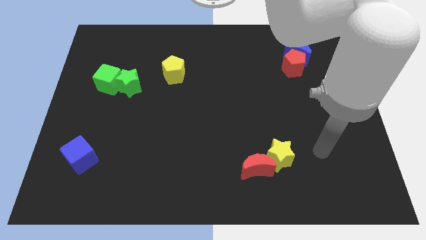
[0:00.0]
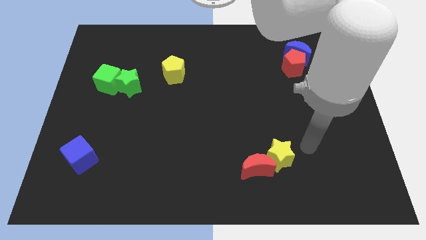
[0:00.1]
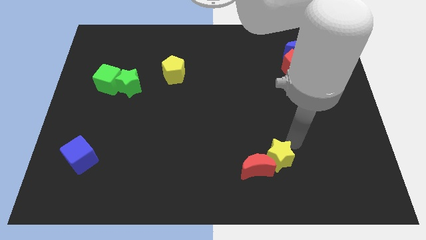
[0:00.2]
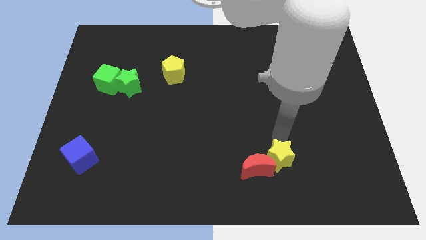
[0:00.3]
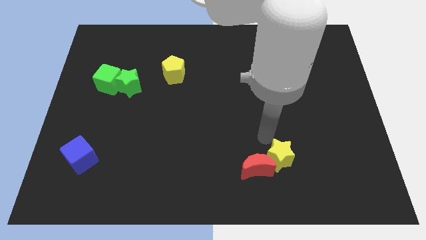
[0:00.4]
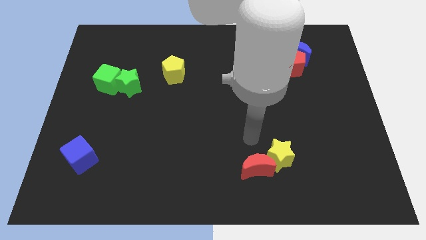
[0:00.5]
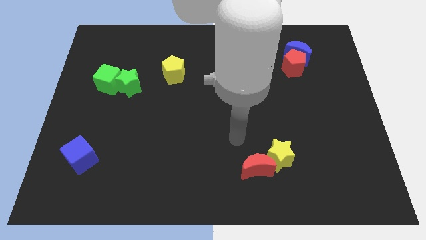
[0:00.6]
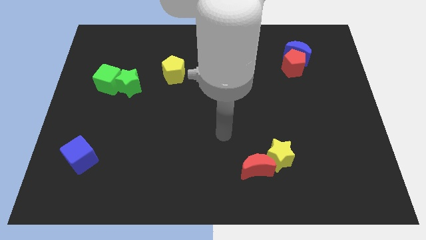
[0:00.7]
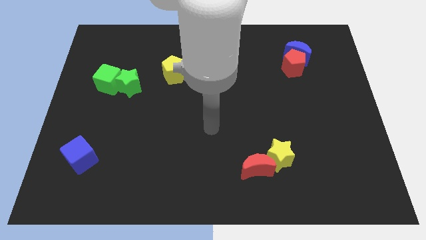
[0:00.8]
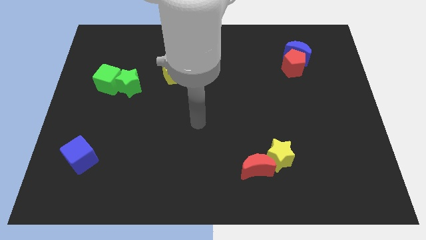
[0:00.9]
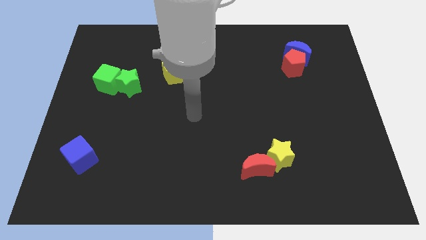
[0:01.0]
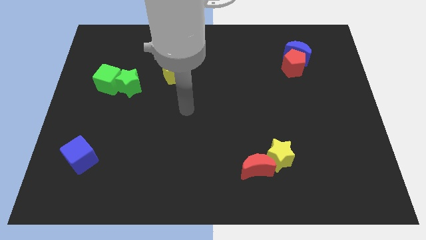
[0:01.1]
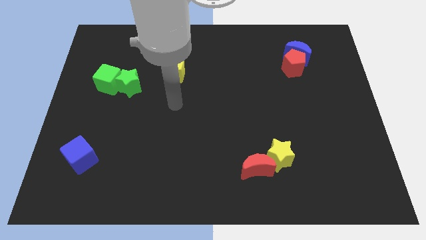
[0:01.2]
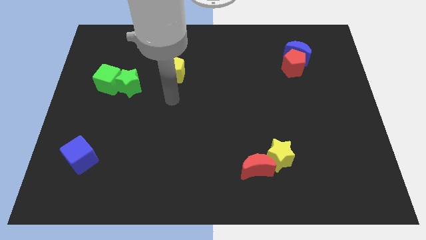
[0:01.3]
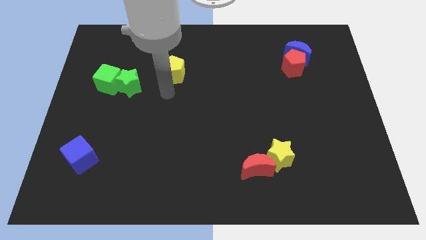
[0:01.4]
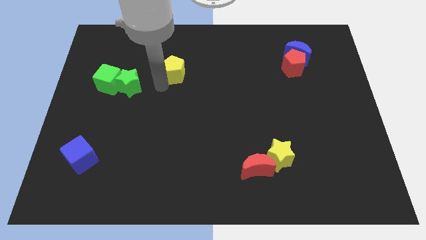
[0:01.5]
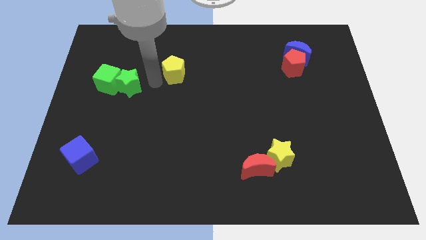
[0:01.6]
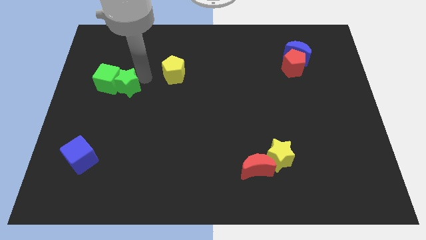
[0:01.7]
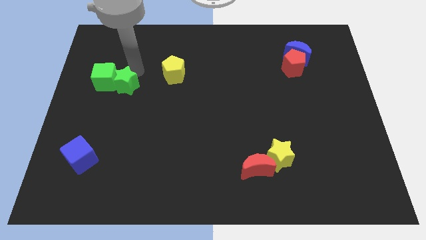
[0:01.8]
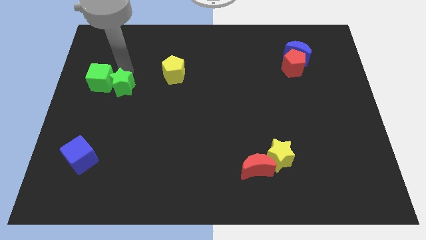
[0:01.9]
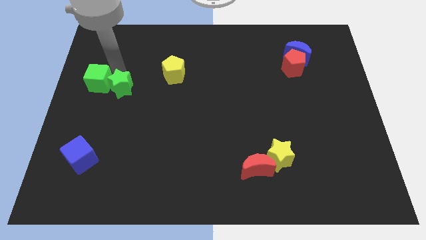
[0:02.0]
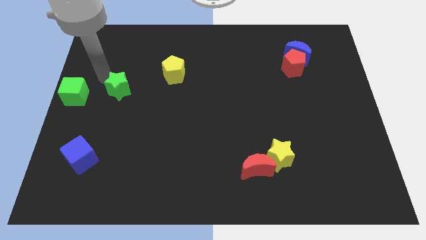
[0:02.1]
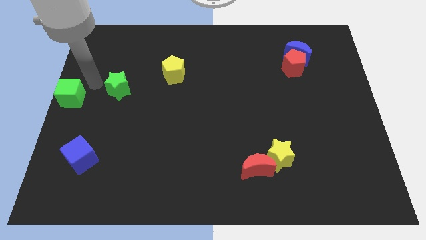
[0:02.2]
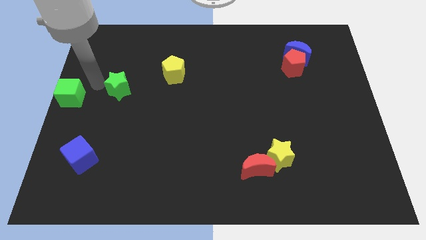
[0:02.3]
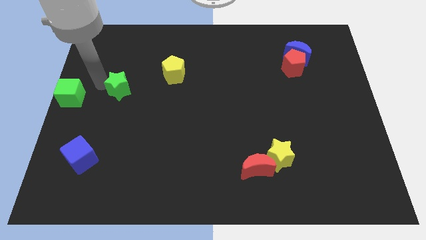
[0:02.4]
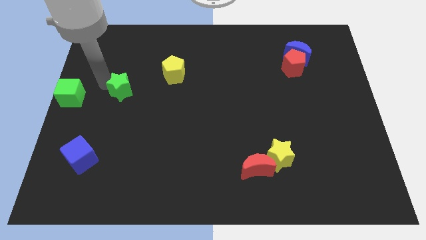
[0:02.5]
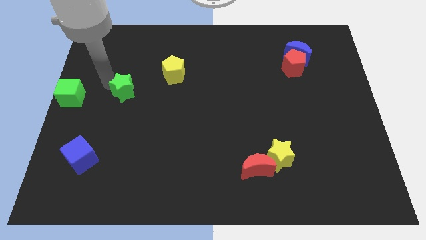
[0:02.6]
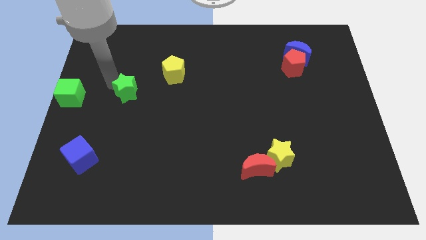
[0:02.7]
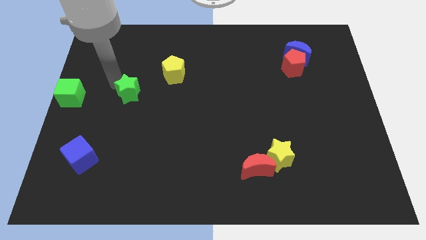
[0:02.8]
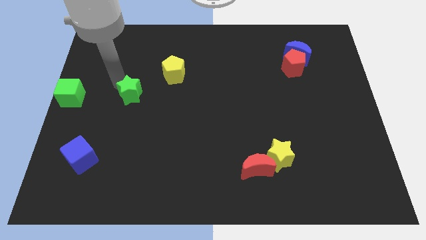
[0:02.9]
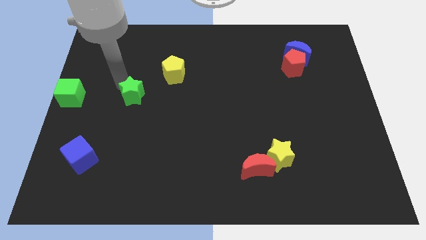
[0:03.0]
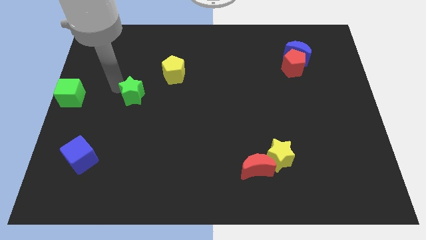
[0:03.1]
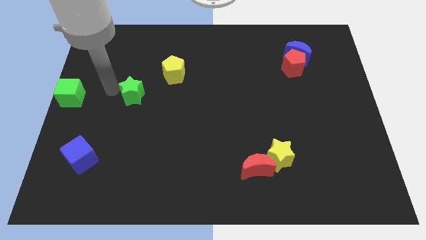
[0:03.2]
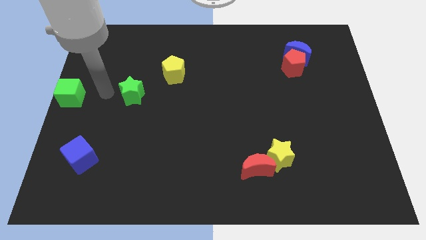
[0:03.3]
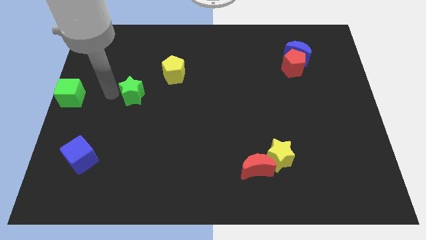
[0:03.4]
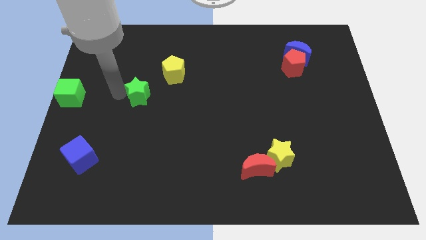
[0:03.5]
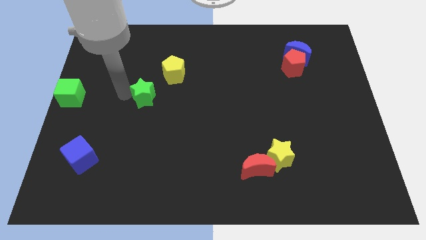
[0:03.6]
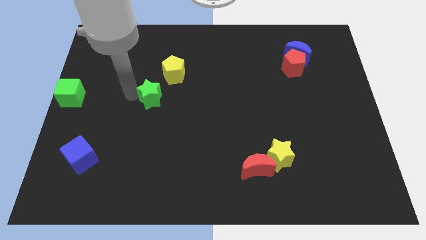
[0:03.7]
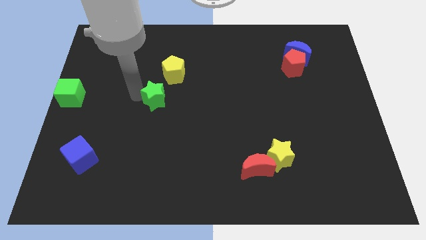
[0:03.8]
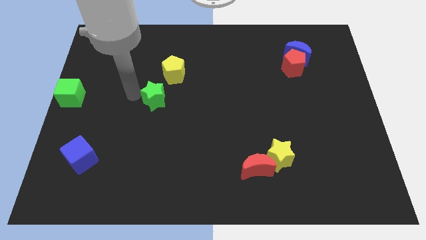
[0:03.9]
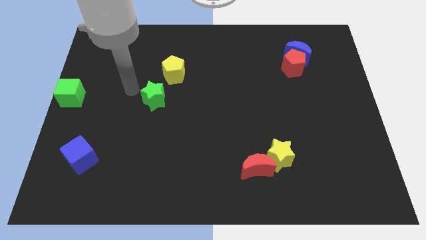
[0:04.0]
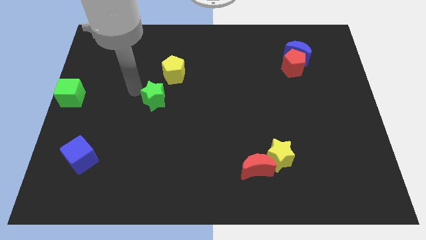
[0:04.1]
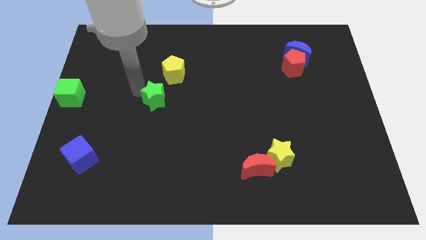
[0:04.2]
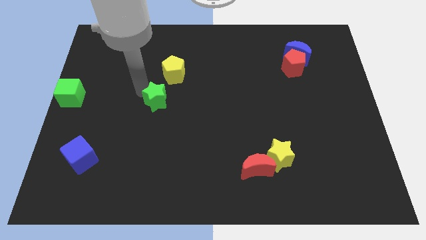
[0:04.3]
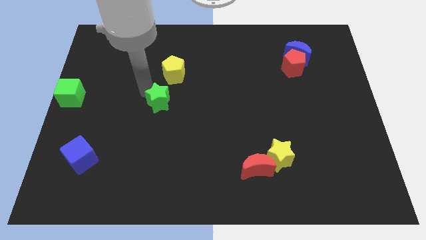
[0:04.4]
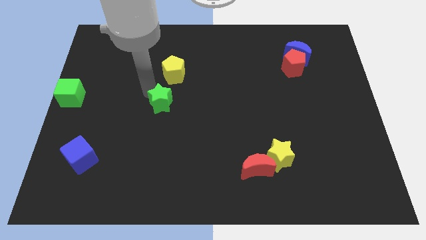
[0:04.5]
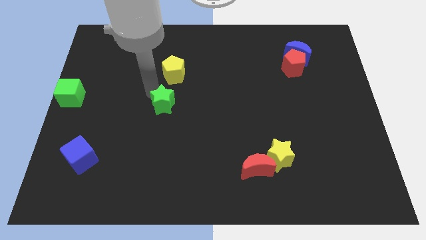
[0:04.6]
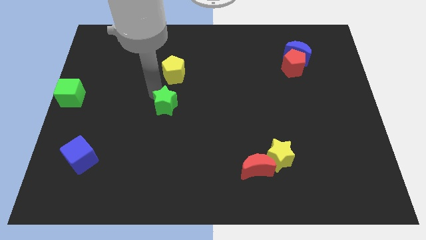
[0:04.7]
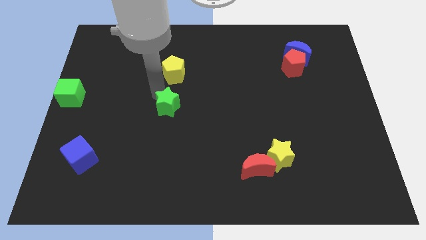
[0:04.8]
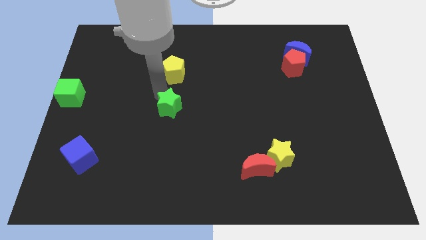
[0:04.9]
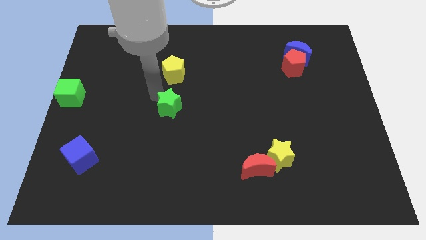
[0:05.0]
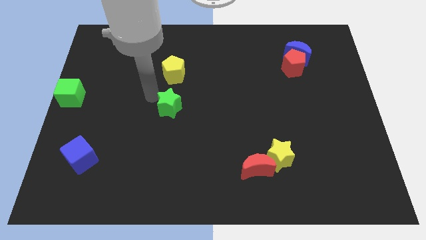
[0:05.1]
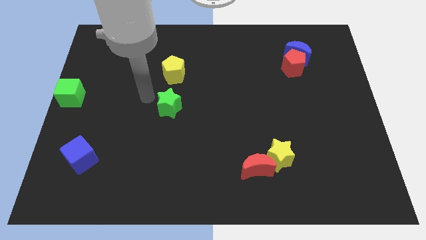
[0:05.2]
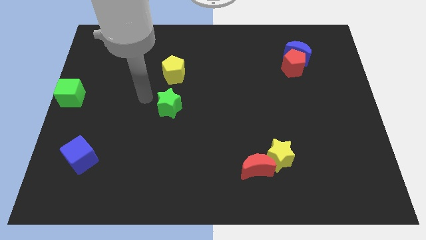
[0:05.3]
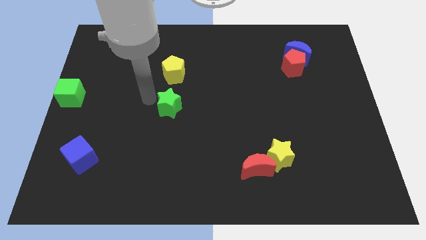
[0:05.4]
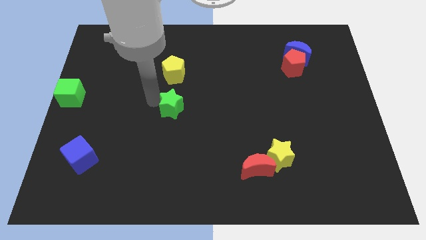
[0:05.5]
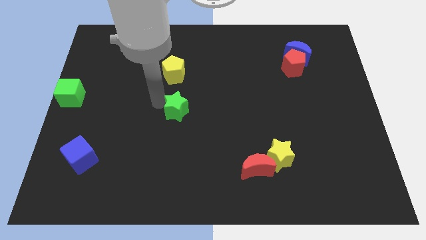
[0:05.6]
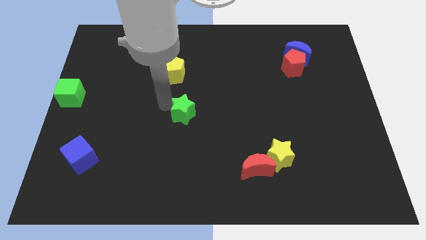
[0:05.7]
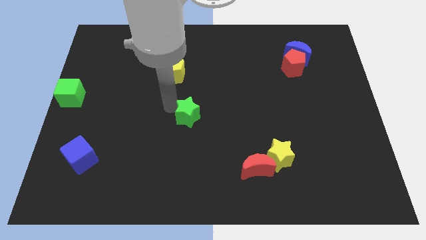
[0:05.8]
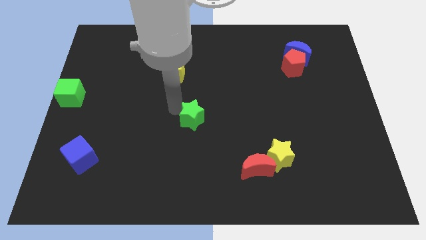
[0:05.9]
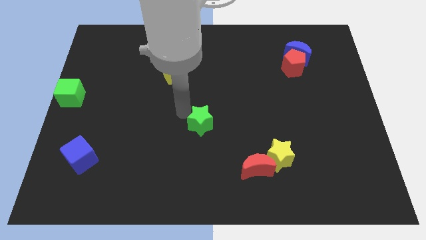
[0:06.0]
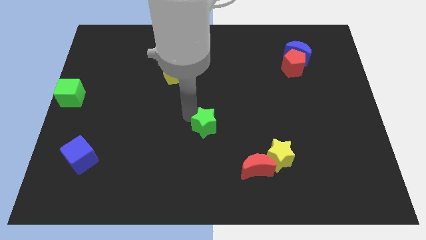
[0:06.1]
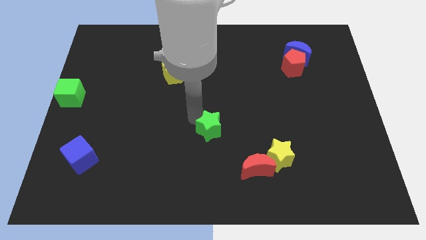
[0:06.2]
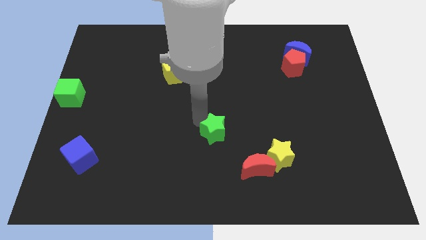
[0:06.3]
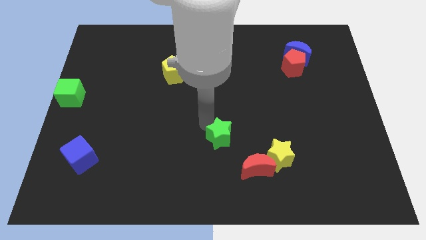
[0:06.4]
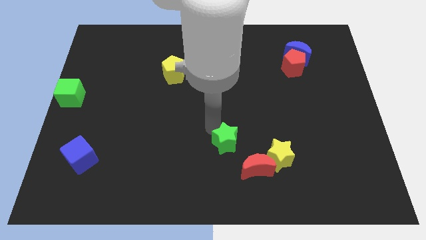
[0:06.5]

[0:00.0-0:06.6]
push the green star just left of the yellow star
